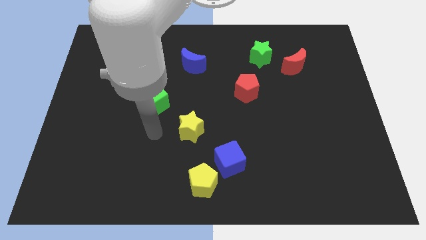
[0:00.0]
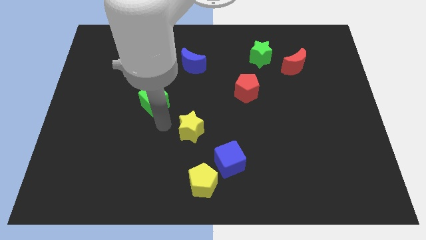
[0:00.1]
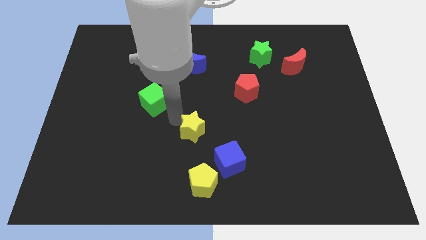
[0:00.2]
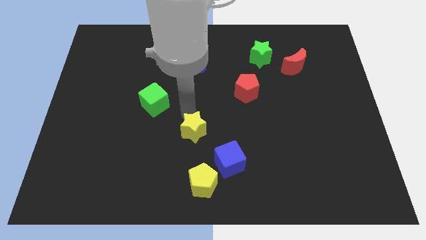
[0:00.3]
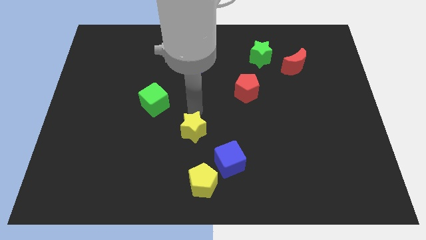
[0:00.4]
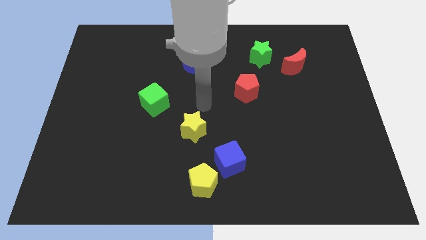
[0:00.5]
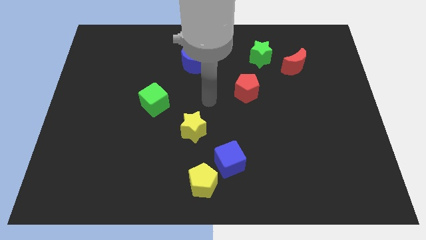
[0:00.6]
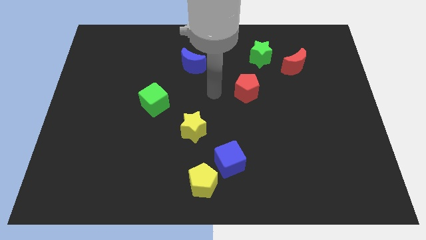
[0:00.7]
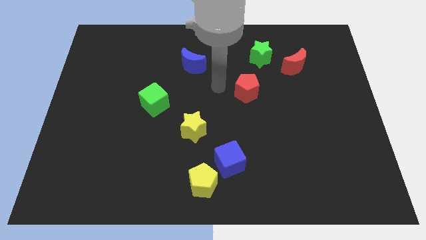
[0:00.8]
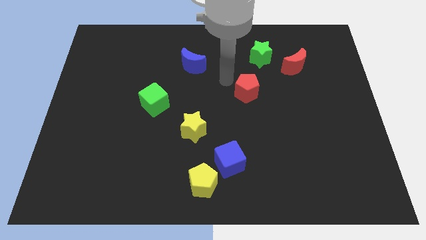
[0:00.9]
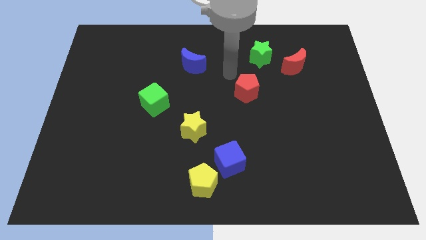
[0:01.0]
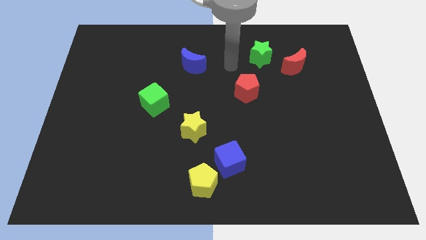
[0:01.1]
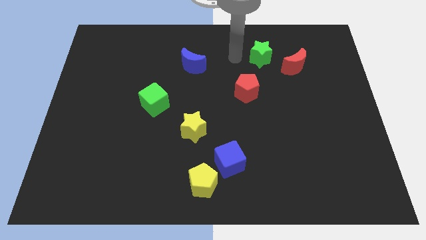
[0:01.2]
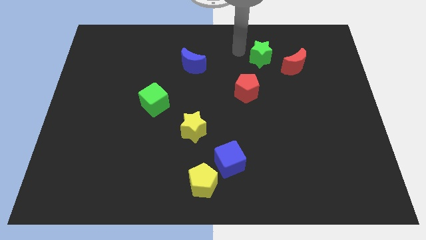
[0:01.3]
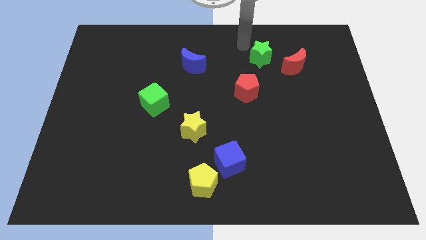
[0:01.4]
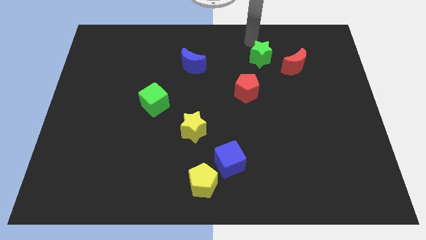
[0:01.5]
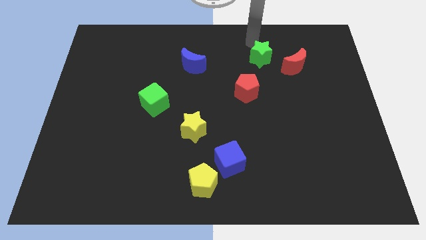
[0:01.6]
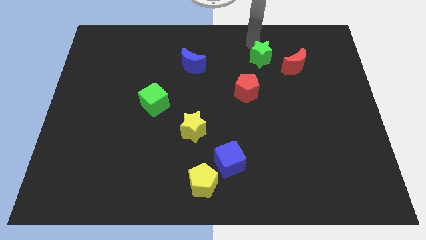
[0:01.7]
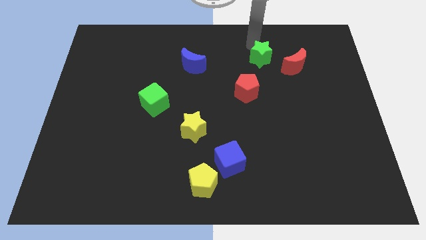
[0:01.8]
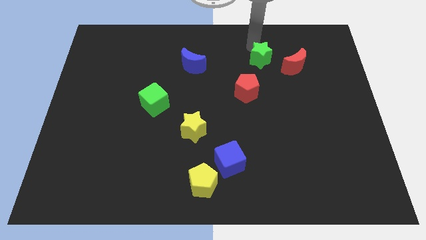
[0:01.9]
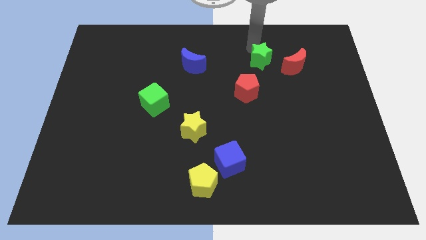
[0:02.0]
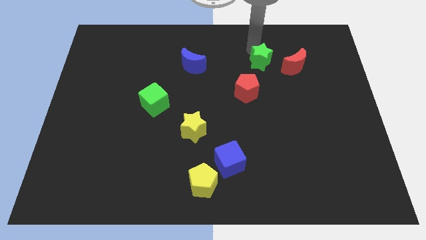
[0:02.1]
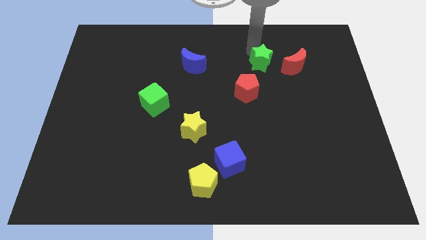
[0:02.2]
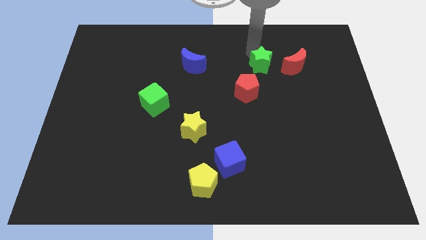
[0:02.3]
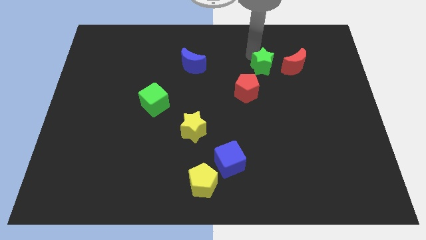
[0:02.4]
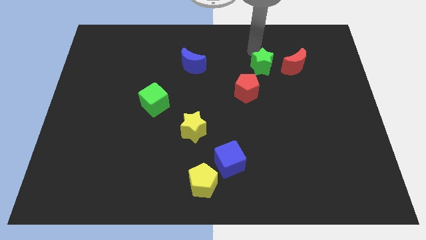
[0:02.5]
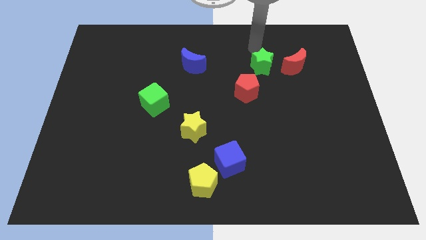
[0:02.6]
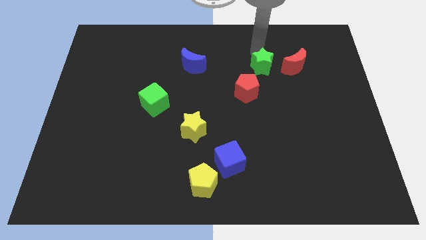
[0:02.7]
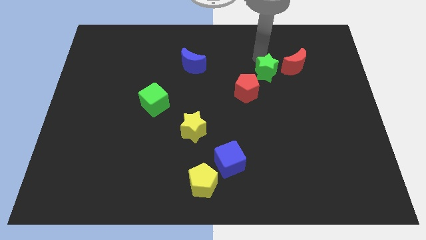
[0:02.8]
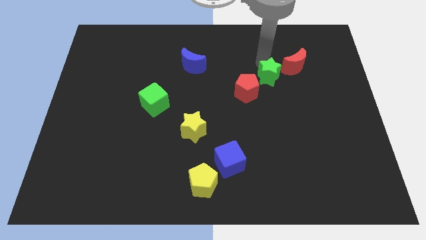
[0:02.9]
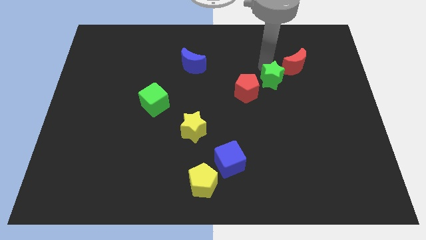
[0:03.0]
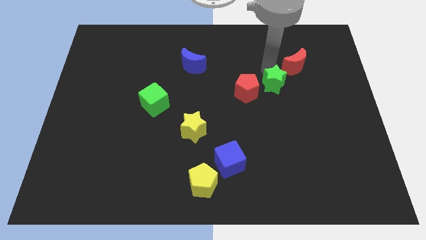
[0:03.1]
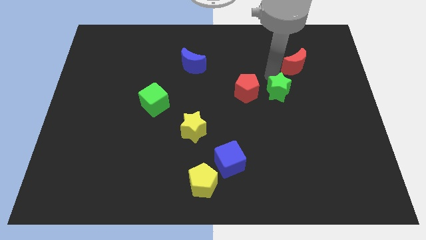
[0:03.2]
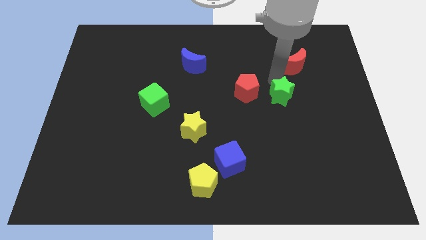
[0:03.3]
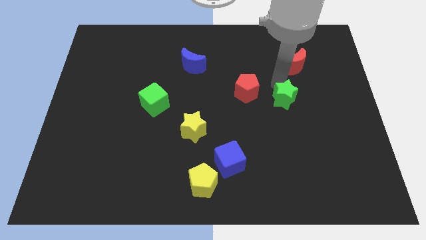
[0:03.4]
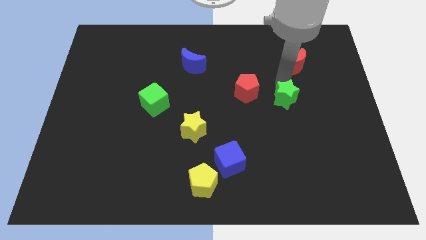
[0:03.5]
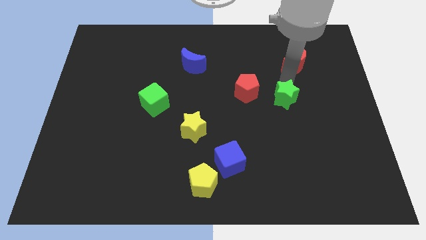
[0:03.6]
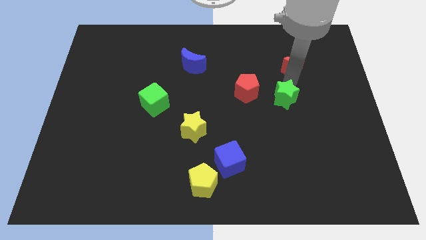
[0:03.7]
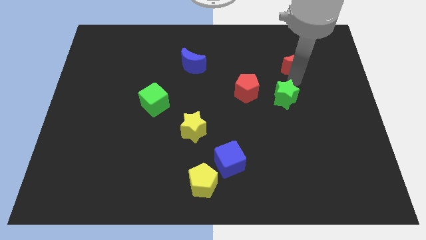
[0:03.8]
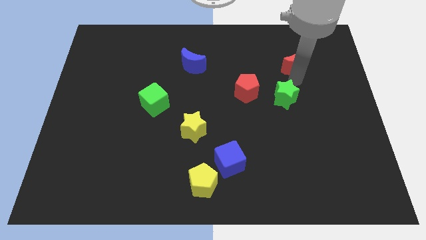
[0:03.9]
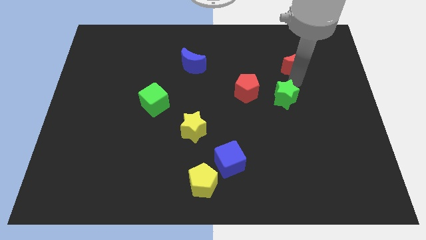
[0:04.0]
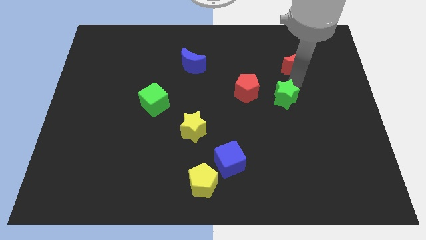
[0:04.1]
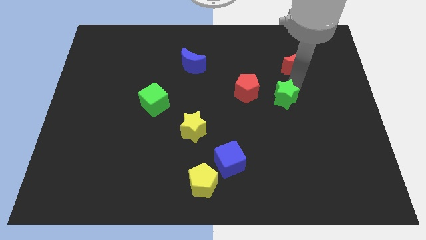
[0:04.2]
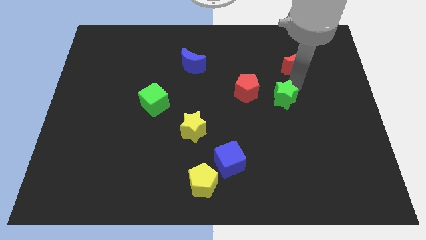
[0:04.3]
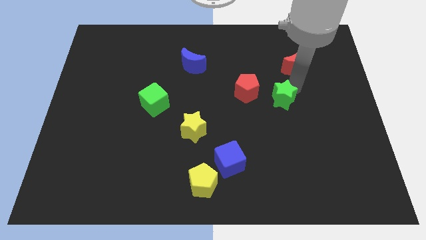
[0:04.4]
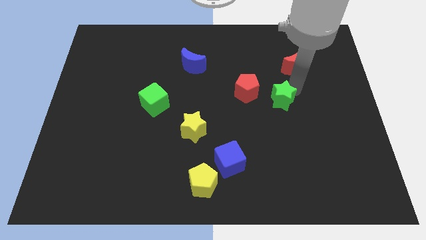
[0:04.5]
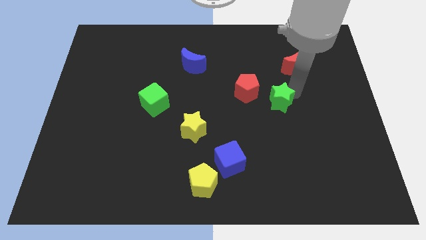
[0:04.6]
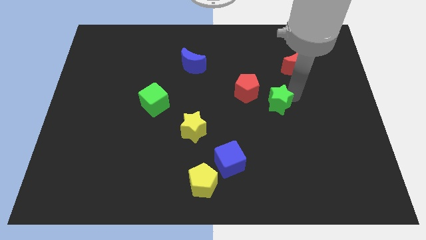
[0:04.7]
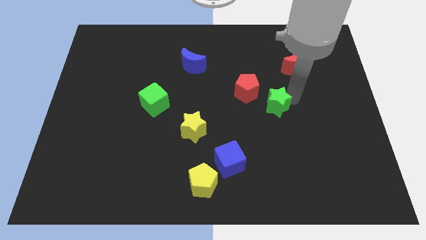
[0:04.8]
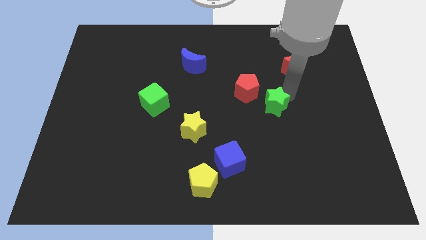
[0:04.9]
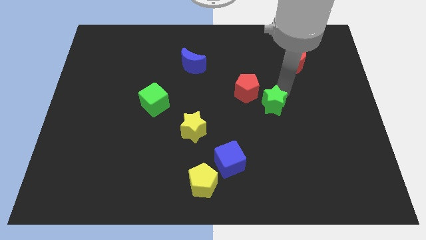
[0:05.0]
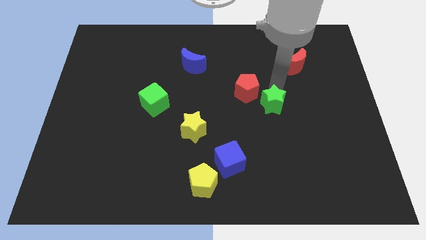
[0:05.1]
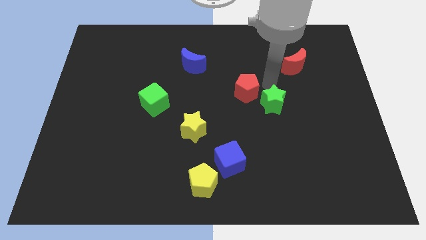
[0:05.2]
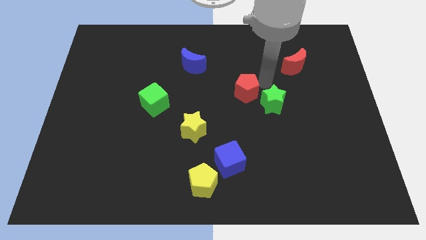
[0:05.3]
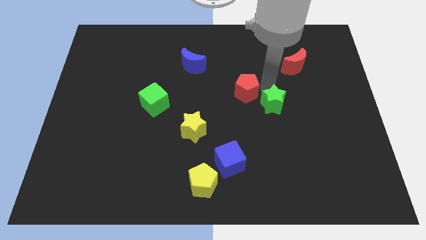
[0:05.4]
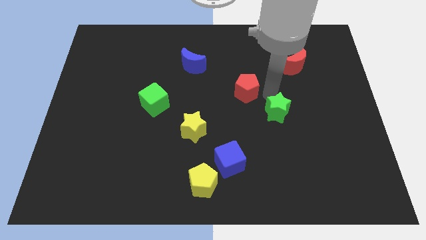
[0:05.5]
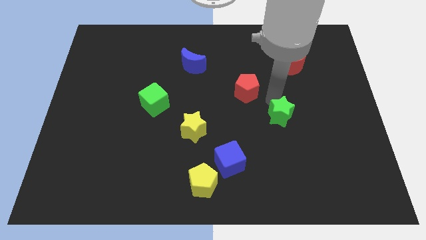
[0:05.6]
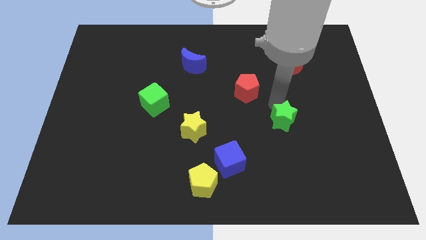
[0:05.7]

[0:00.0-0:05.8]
push the green star downwards

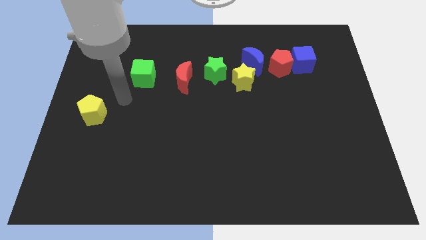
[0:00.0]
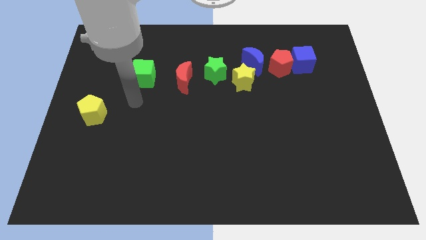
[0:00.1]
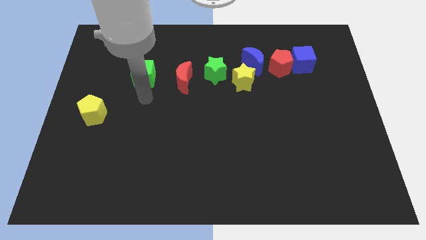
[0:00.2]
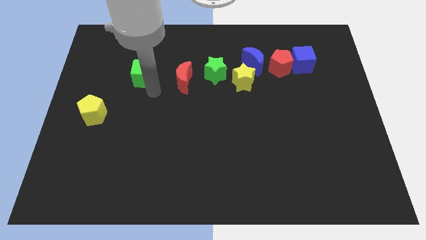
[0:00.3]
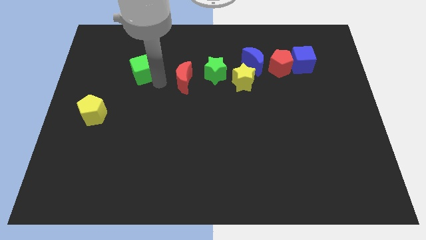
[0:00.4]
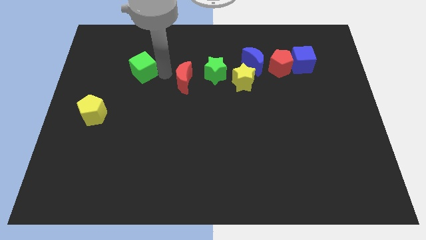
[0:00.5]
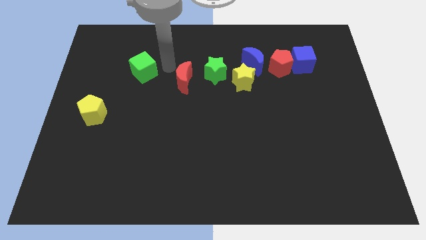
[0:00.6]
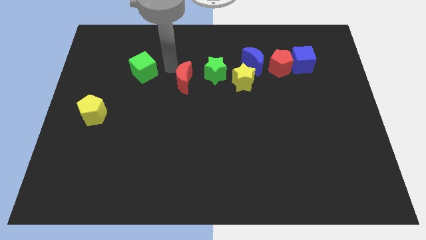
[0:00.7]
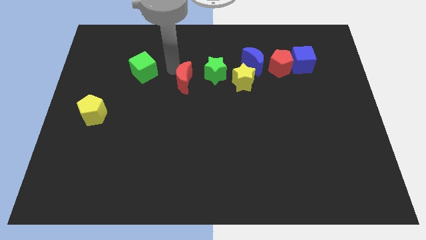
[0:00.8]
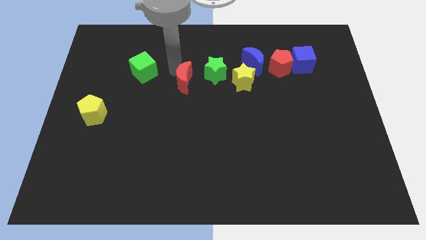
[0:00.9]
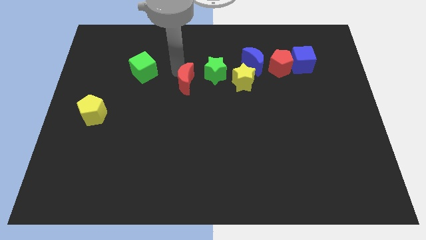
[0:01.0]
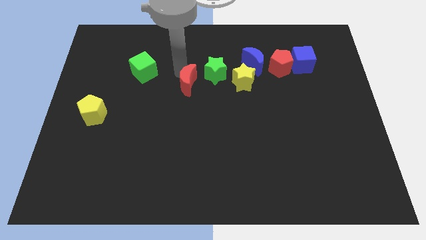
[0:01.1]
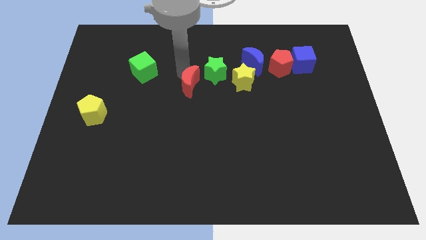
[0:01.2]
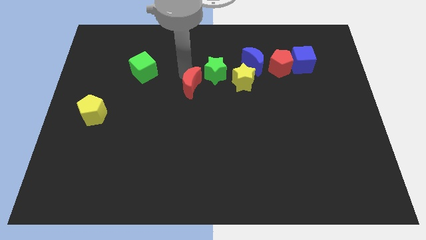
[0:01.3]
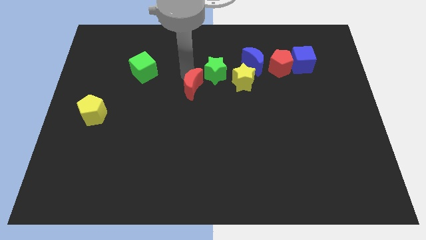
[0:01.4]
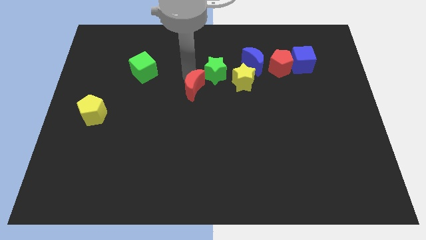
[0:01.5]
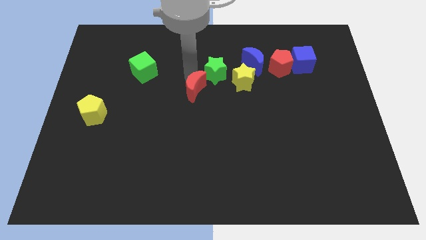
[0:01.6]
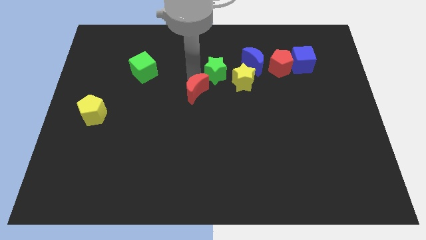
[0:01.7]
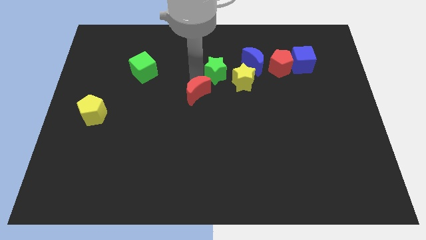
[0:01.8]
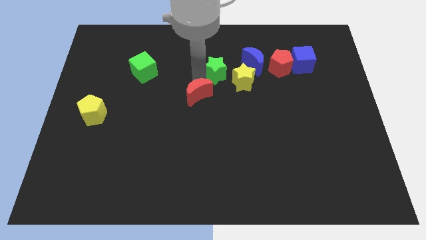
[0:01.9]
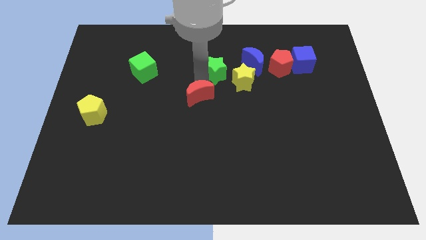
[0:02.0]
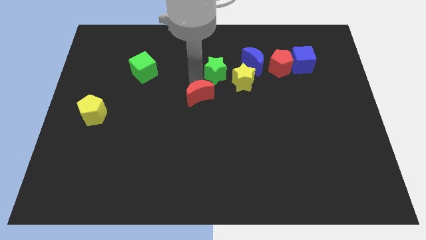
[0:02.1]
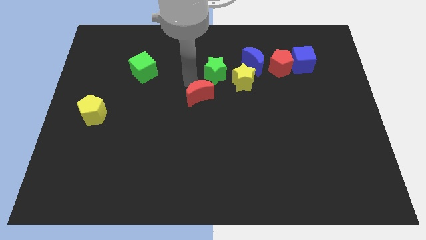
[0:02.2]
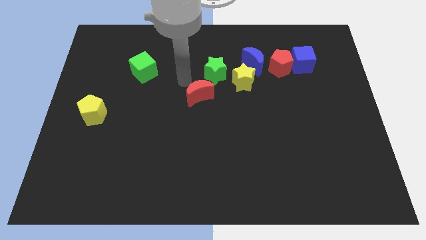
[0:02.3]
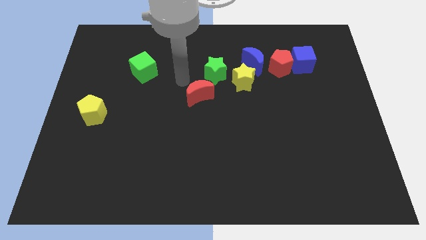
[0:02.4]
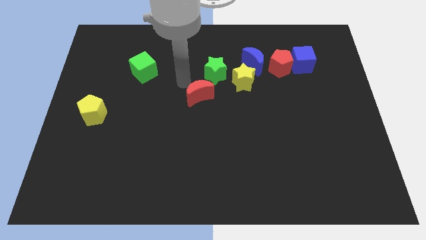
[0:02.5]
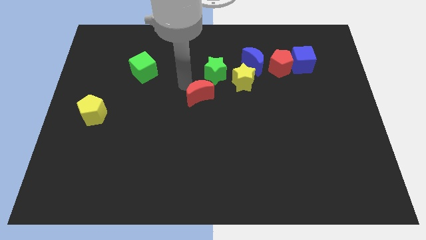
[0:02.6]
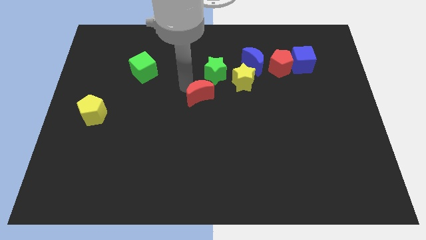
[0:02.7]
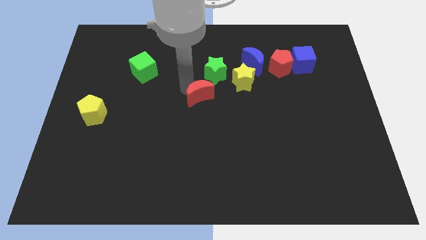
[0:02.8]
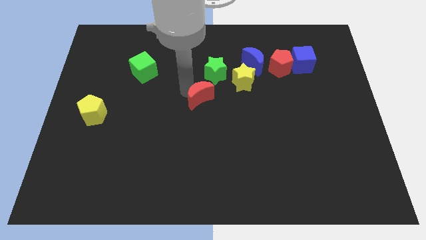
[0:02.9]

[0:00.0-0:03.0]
slightly push the red moon down and to the right diagonally
